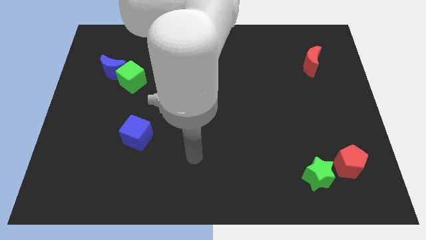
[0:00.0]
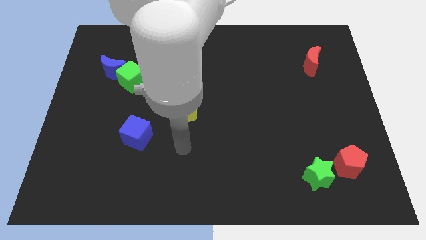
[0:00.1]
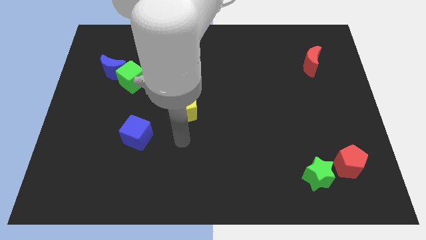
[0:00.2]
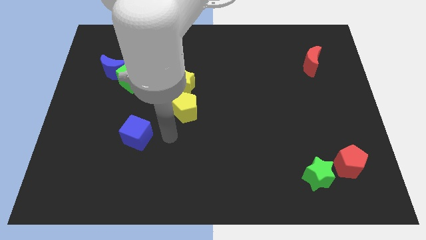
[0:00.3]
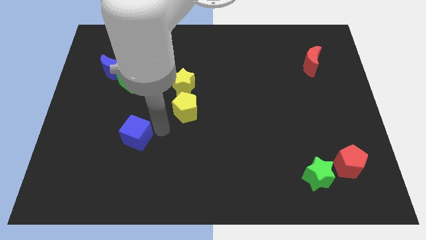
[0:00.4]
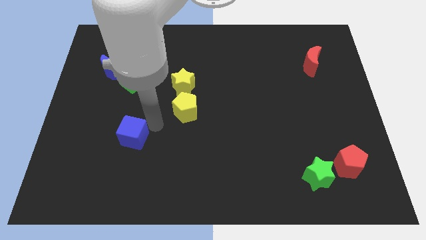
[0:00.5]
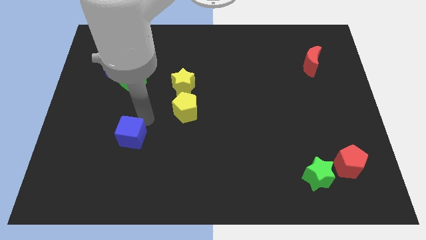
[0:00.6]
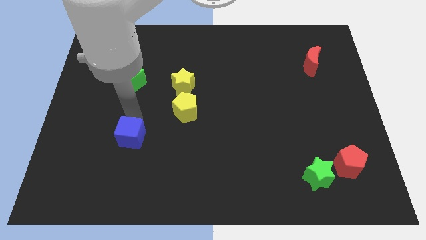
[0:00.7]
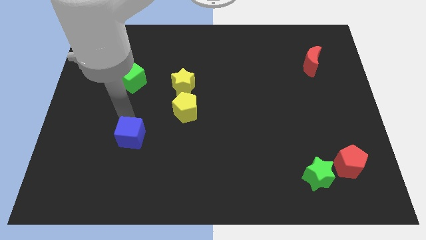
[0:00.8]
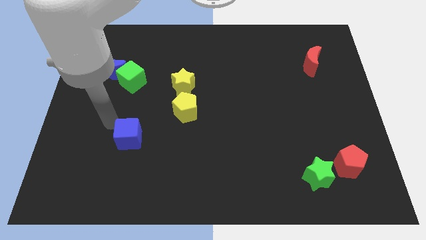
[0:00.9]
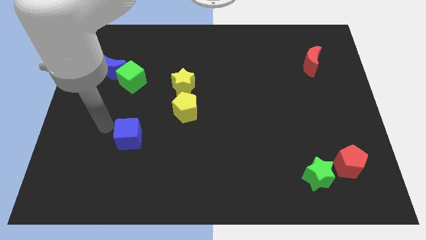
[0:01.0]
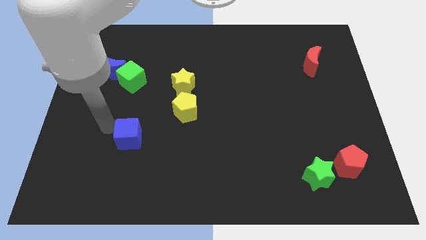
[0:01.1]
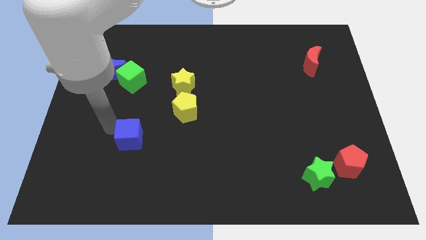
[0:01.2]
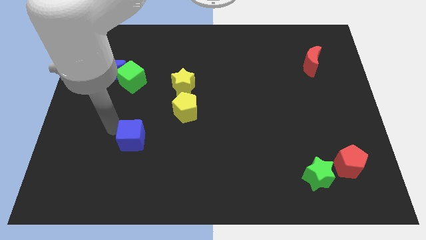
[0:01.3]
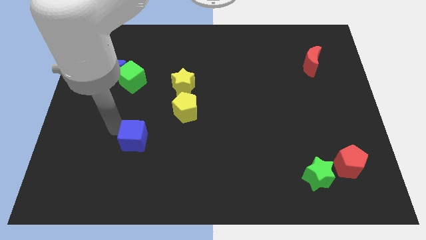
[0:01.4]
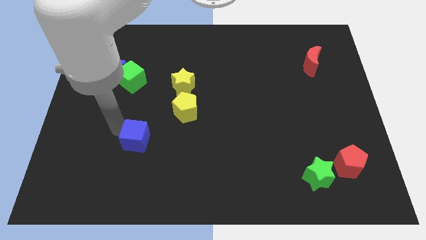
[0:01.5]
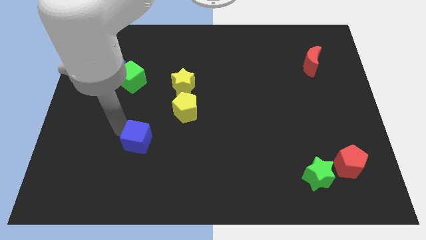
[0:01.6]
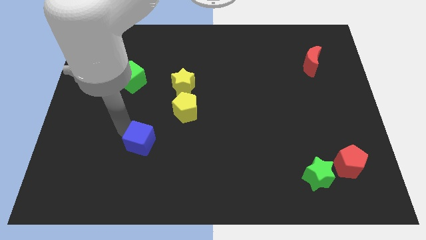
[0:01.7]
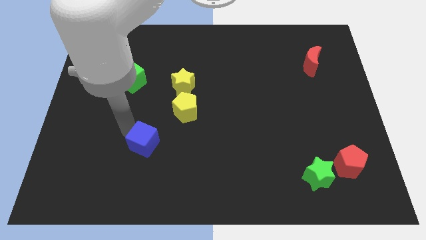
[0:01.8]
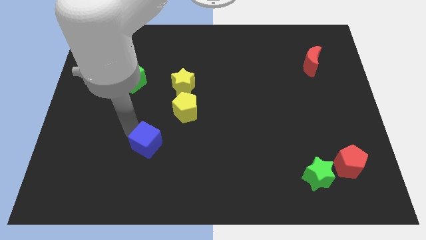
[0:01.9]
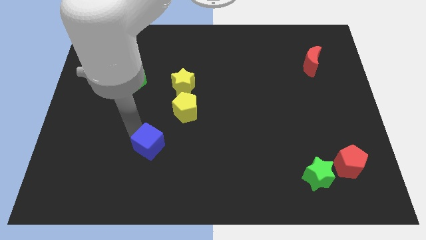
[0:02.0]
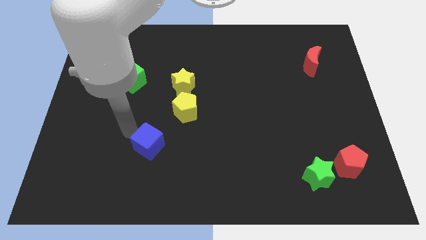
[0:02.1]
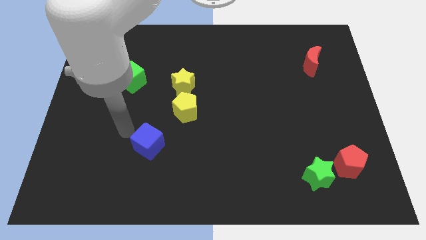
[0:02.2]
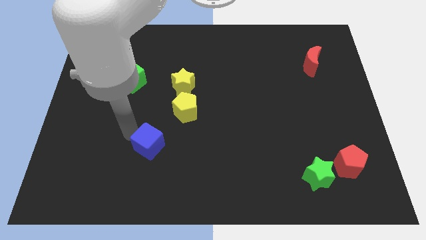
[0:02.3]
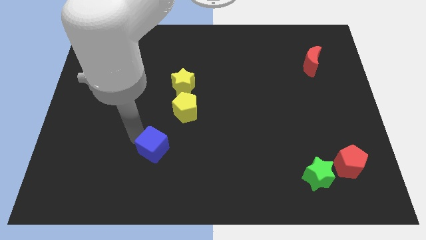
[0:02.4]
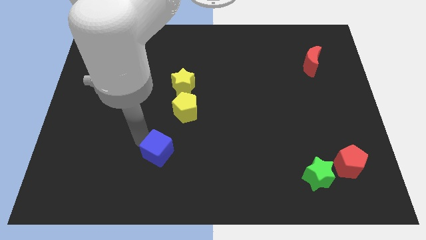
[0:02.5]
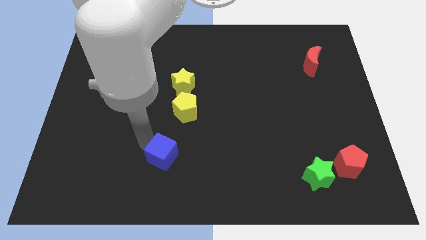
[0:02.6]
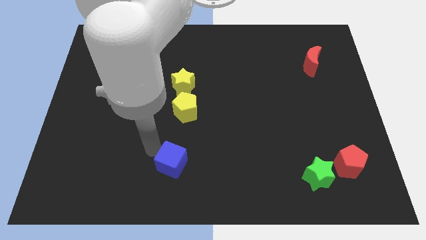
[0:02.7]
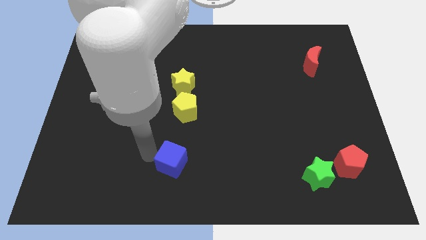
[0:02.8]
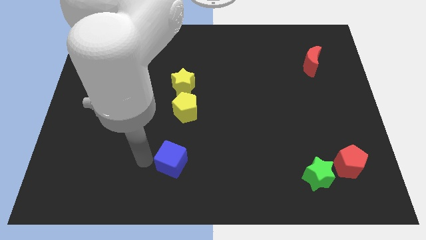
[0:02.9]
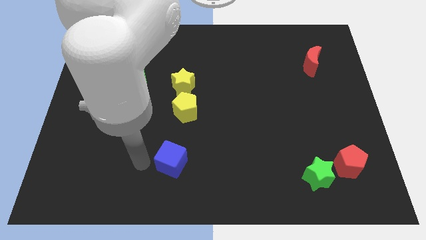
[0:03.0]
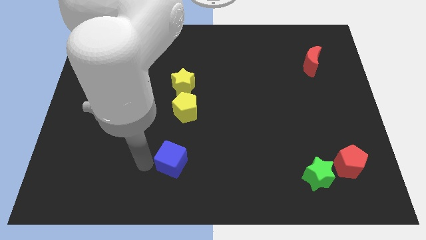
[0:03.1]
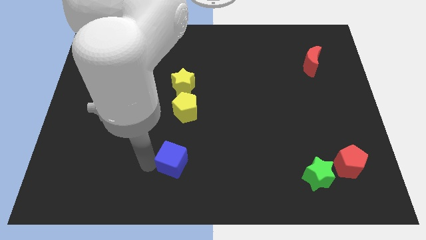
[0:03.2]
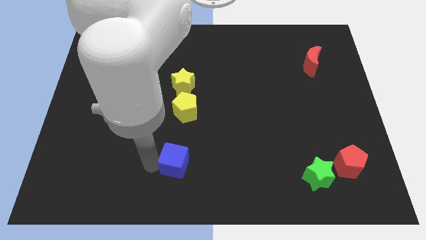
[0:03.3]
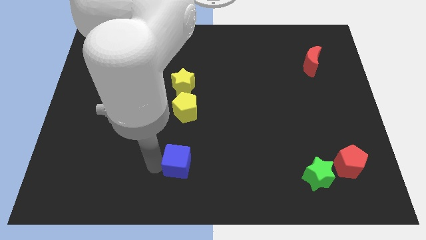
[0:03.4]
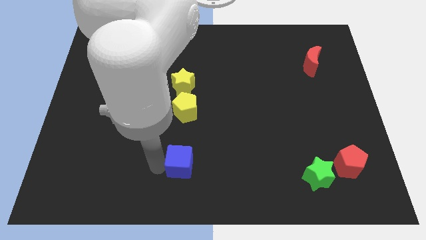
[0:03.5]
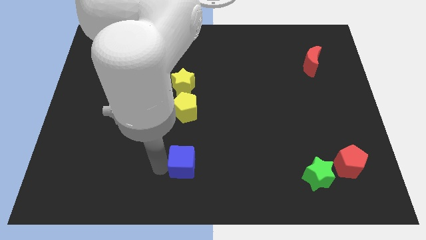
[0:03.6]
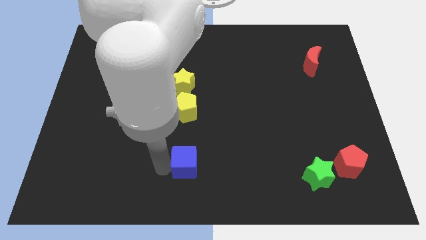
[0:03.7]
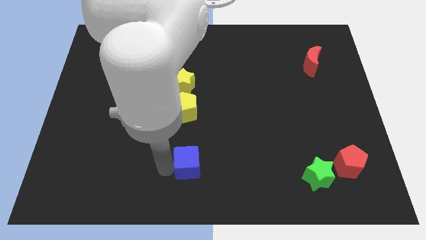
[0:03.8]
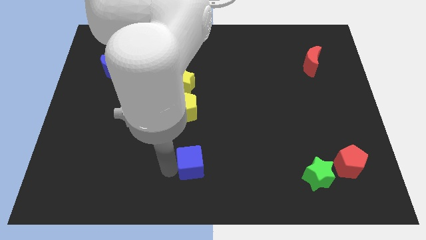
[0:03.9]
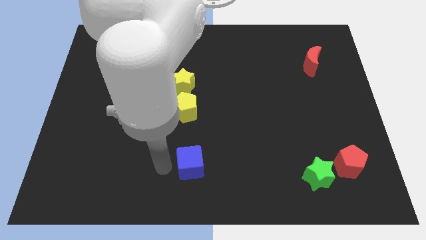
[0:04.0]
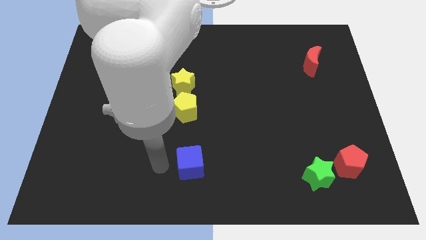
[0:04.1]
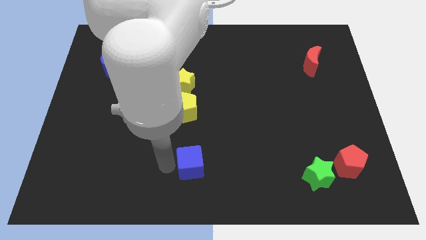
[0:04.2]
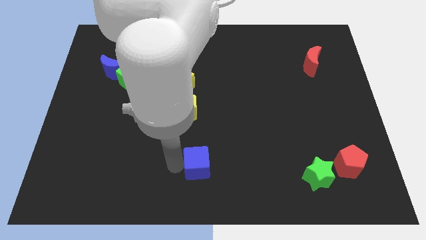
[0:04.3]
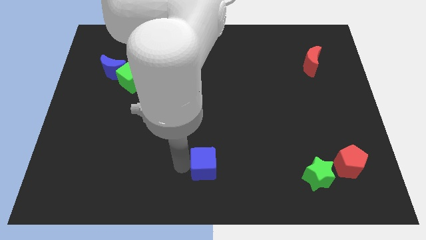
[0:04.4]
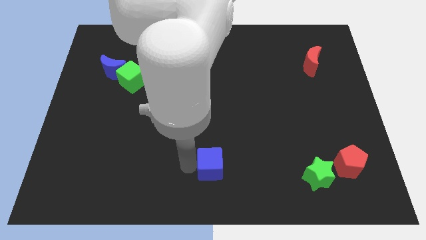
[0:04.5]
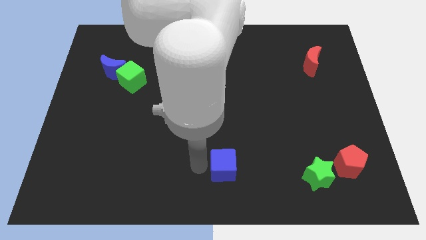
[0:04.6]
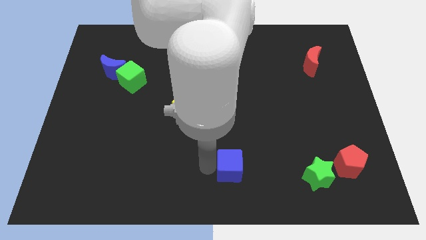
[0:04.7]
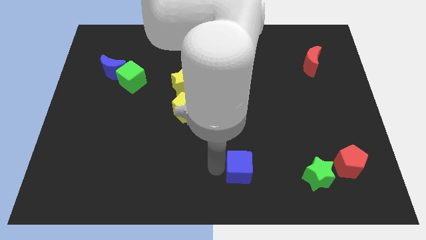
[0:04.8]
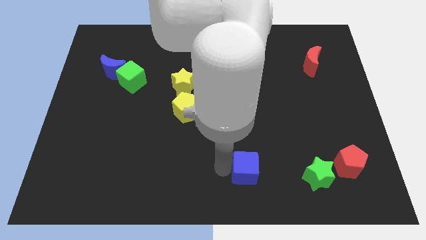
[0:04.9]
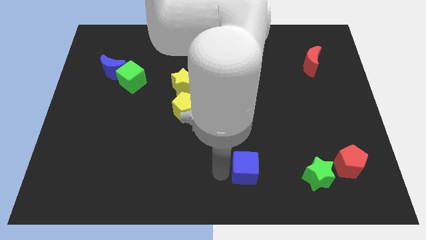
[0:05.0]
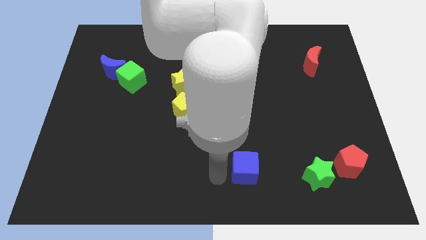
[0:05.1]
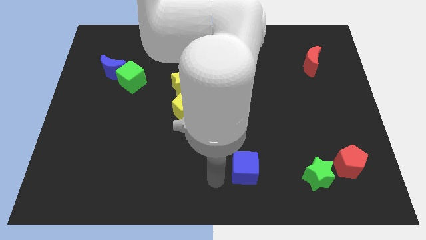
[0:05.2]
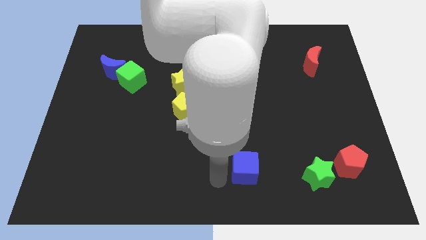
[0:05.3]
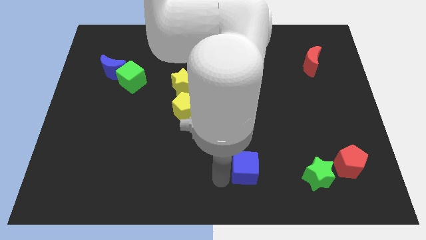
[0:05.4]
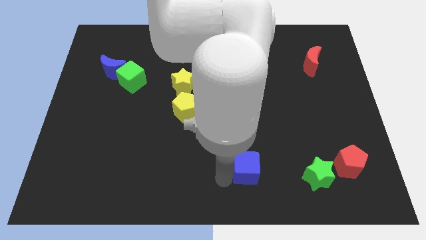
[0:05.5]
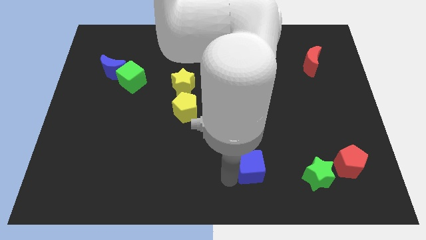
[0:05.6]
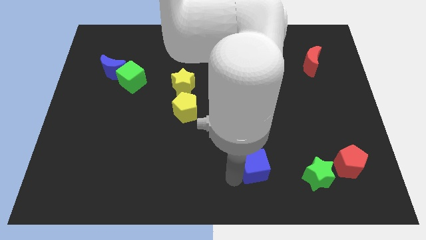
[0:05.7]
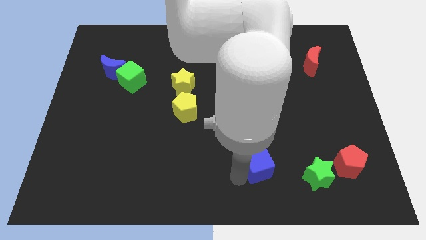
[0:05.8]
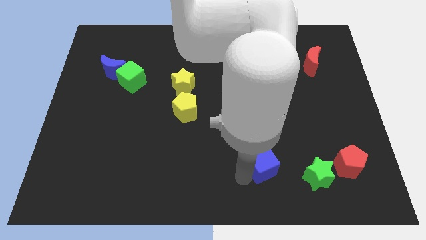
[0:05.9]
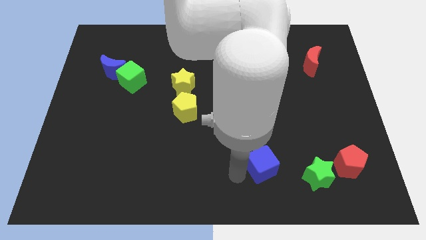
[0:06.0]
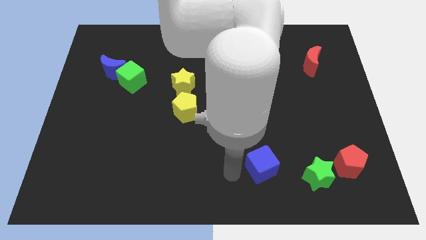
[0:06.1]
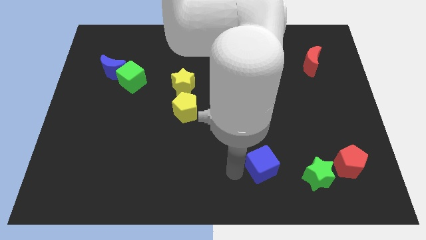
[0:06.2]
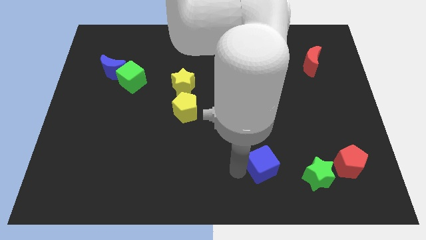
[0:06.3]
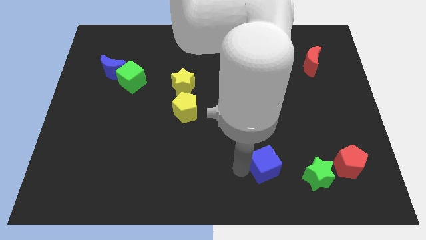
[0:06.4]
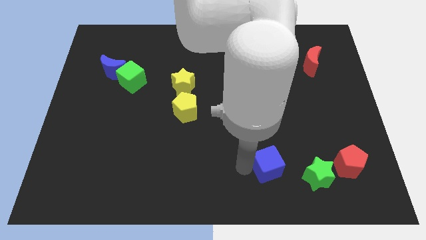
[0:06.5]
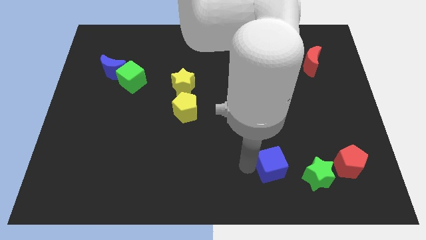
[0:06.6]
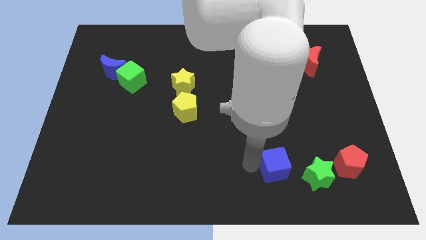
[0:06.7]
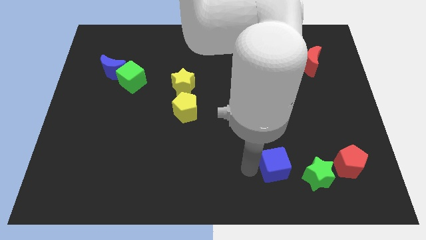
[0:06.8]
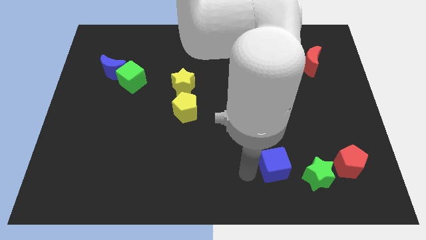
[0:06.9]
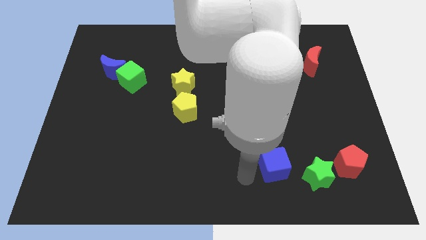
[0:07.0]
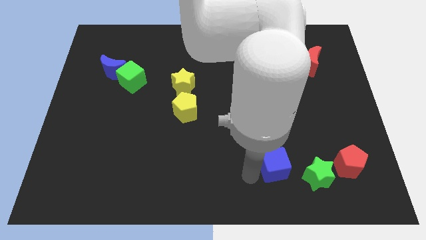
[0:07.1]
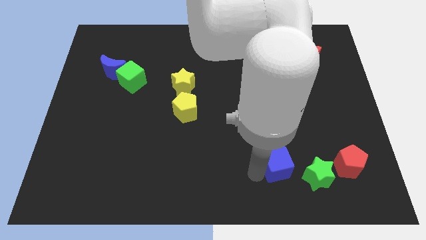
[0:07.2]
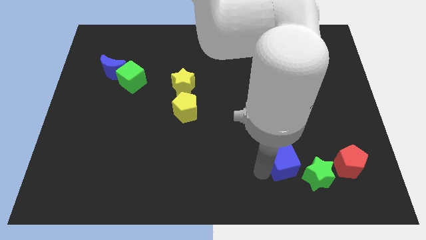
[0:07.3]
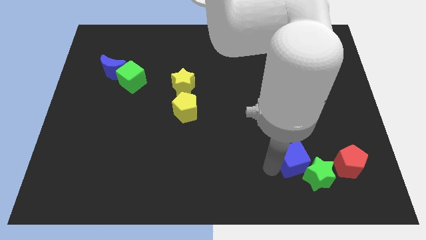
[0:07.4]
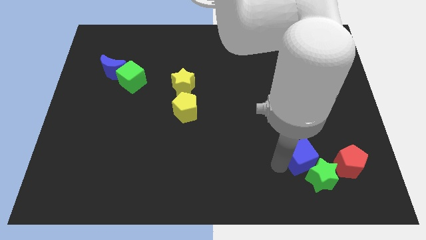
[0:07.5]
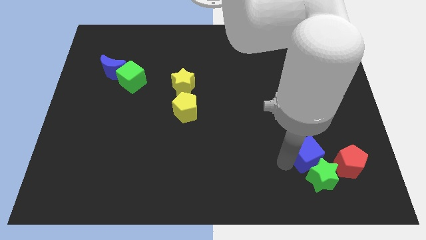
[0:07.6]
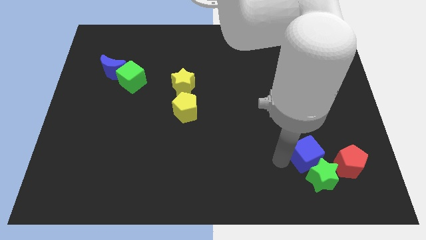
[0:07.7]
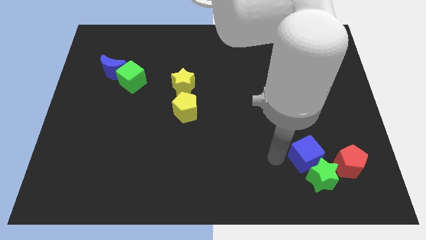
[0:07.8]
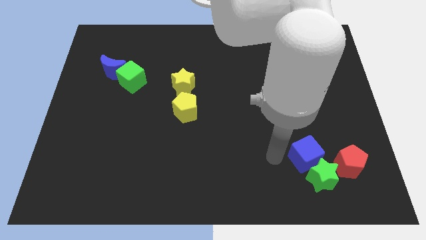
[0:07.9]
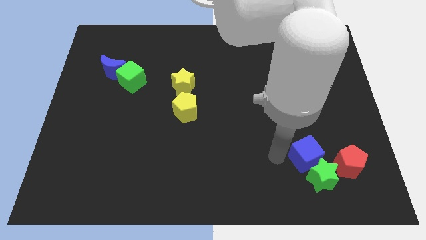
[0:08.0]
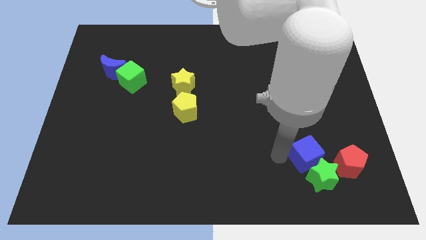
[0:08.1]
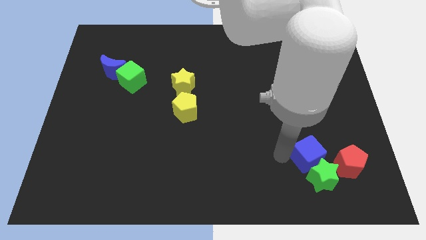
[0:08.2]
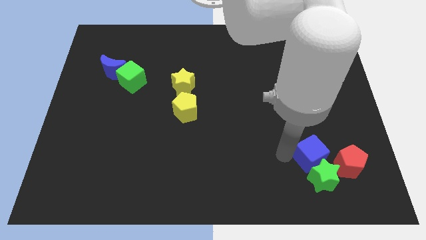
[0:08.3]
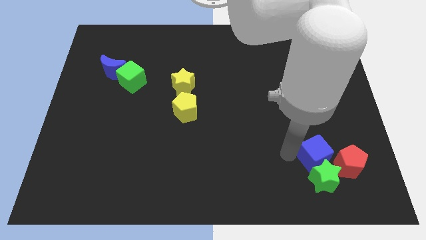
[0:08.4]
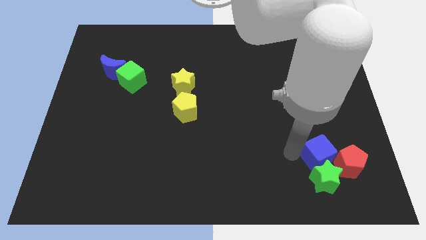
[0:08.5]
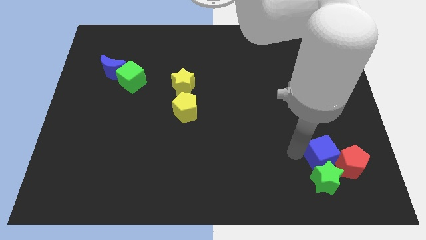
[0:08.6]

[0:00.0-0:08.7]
put the blue cube towards the red pentagon
